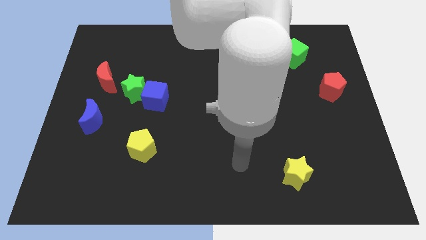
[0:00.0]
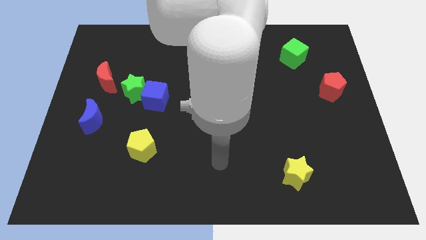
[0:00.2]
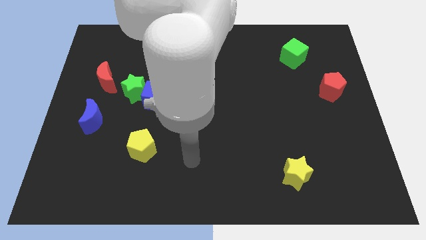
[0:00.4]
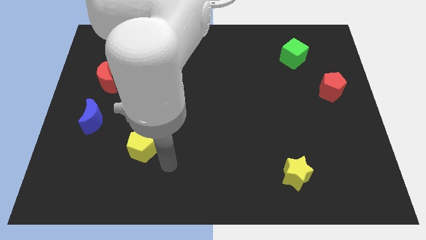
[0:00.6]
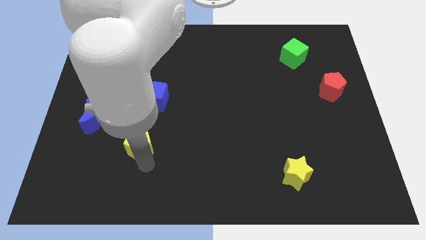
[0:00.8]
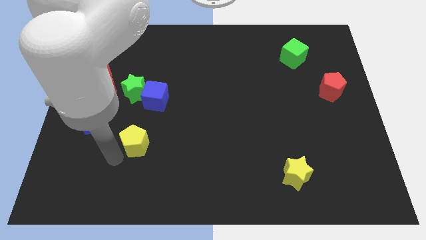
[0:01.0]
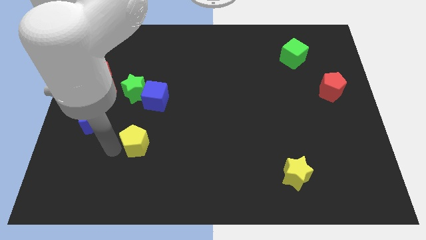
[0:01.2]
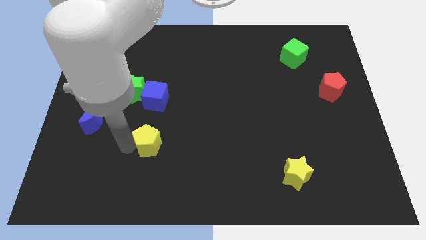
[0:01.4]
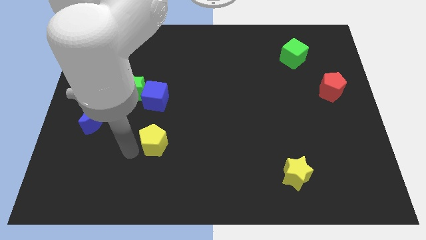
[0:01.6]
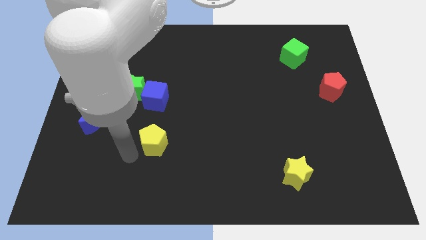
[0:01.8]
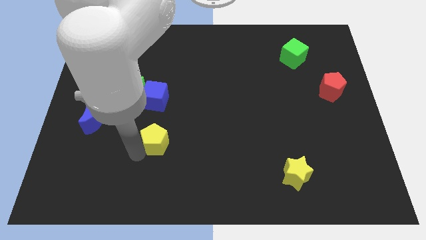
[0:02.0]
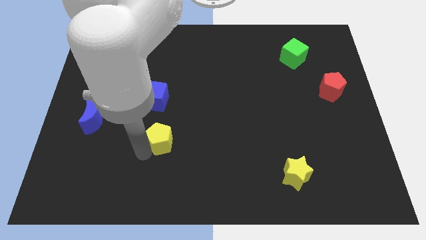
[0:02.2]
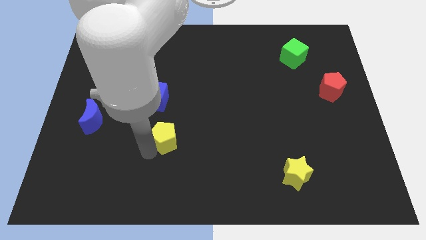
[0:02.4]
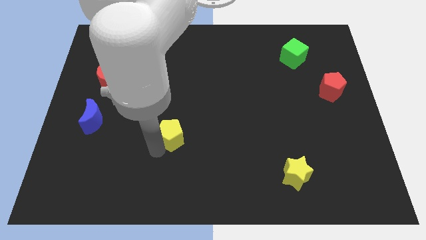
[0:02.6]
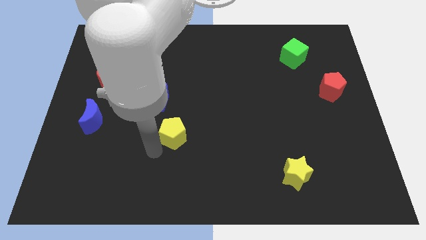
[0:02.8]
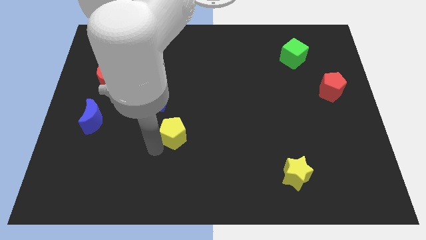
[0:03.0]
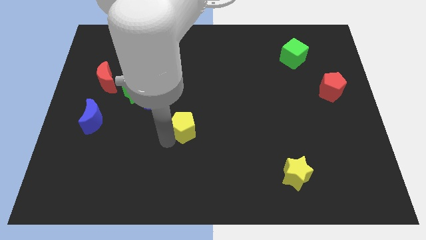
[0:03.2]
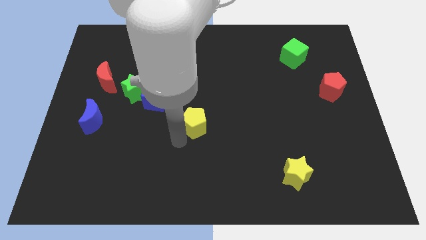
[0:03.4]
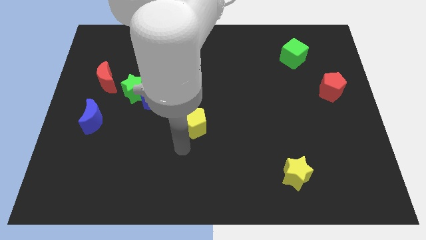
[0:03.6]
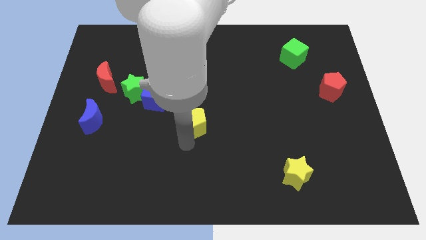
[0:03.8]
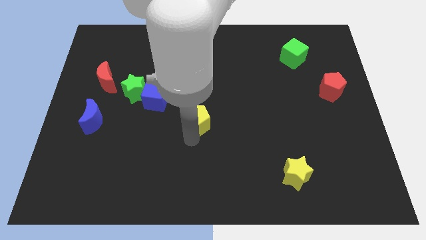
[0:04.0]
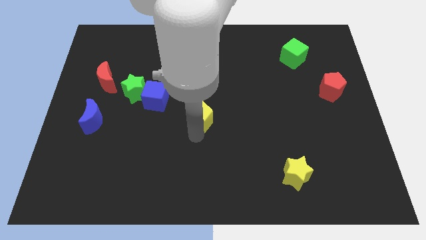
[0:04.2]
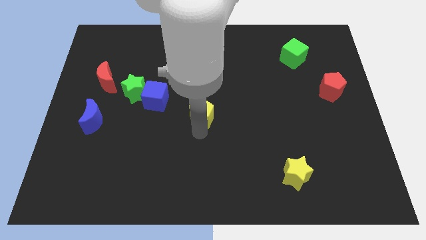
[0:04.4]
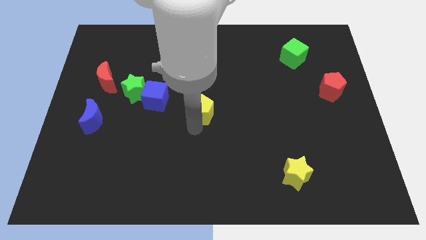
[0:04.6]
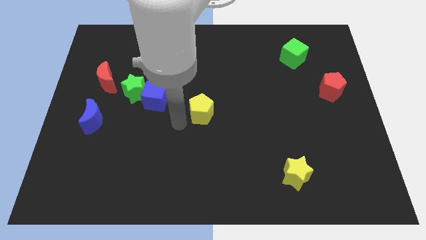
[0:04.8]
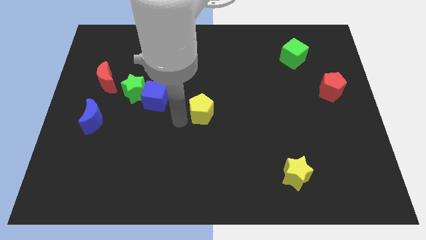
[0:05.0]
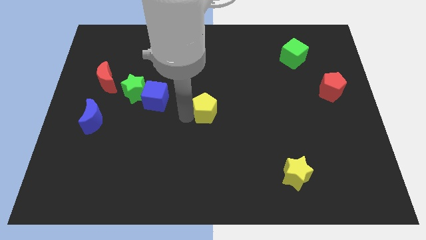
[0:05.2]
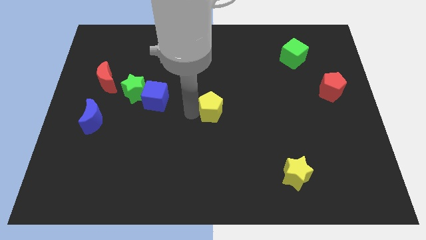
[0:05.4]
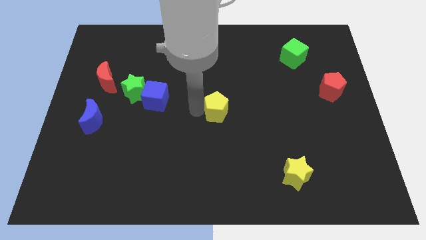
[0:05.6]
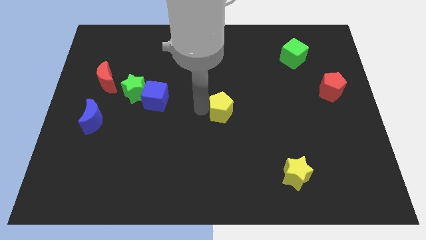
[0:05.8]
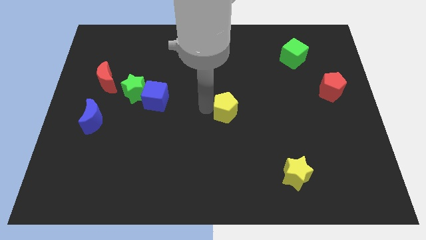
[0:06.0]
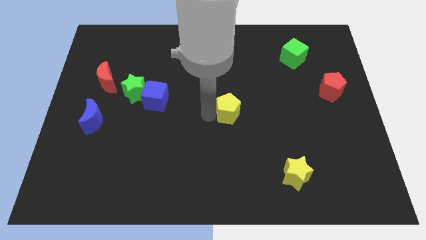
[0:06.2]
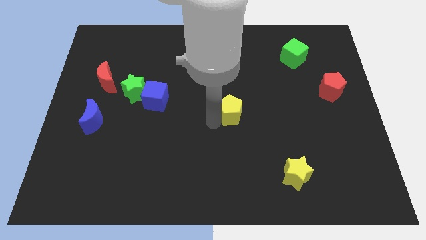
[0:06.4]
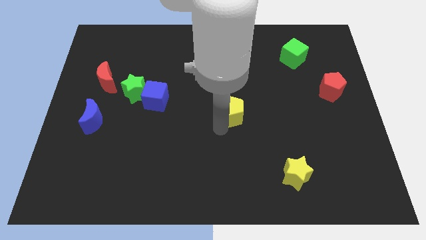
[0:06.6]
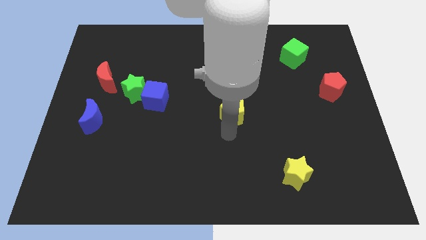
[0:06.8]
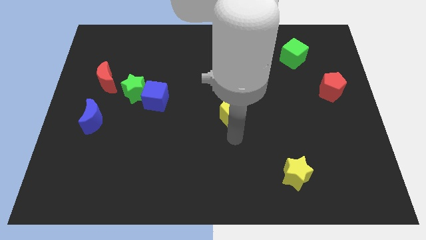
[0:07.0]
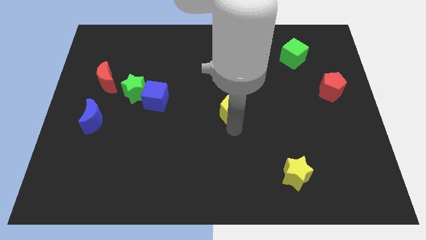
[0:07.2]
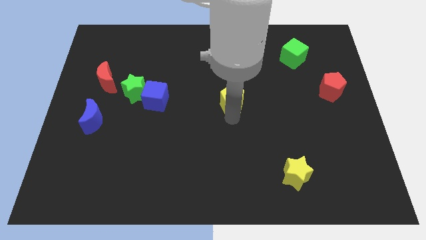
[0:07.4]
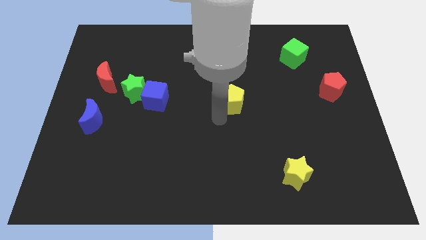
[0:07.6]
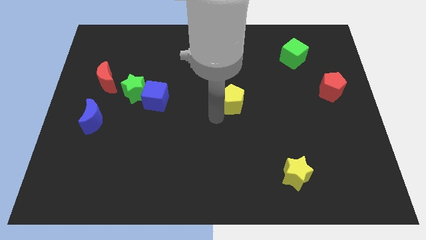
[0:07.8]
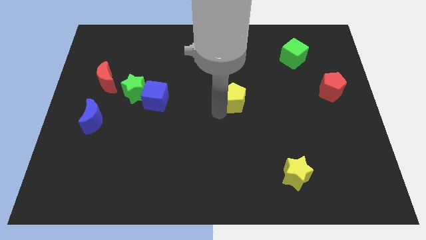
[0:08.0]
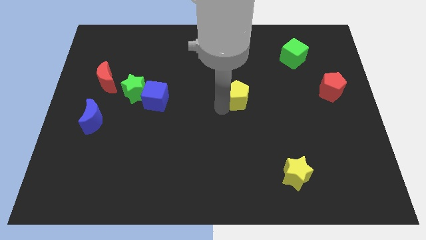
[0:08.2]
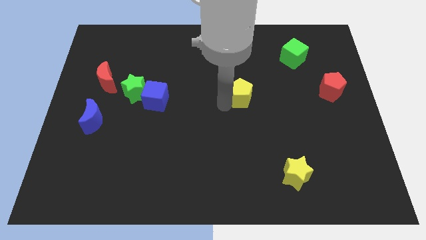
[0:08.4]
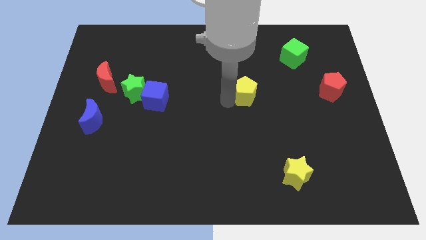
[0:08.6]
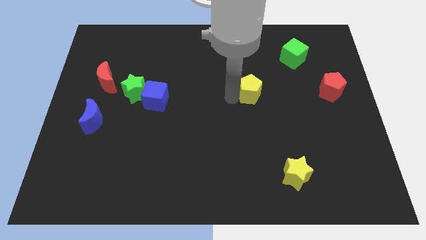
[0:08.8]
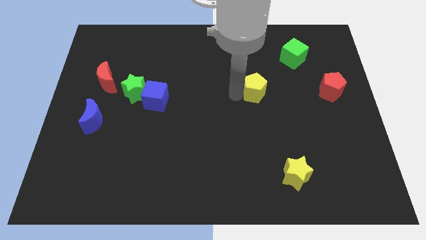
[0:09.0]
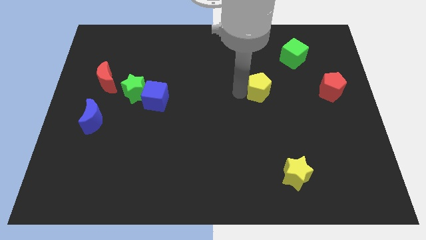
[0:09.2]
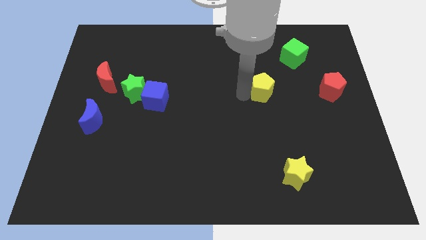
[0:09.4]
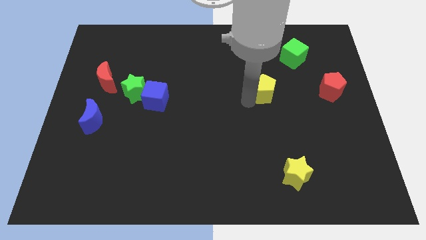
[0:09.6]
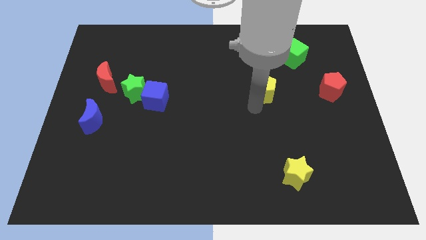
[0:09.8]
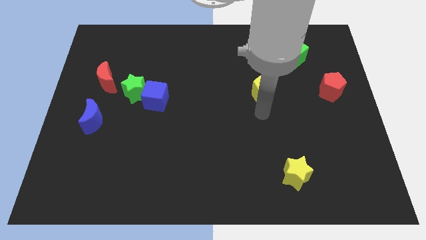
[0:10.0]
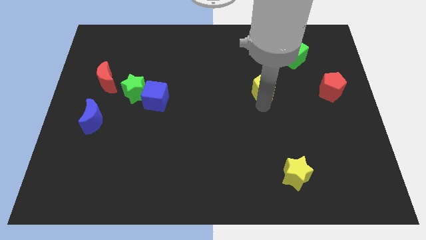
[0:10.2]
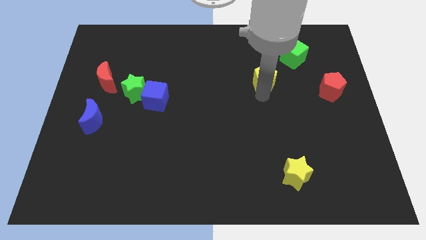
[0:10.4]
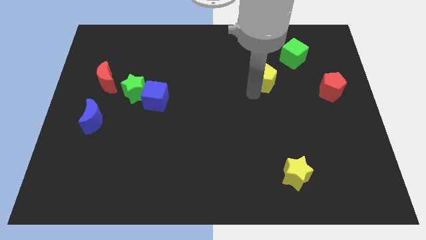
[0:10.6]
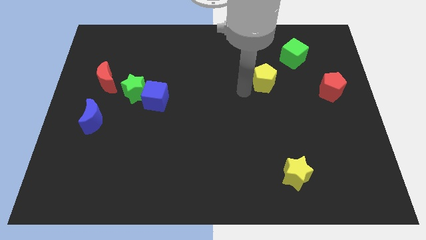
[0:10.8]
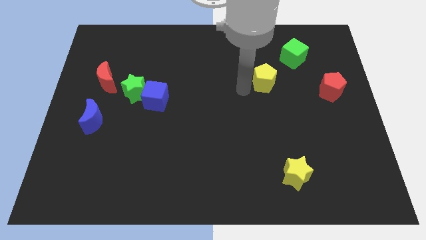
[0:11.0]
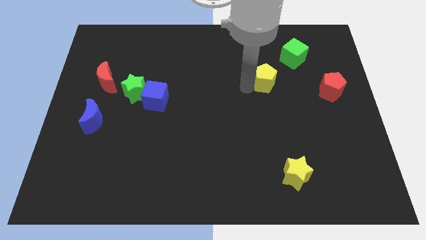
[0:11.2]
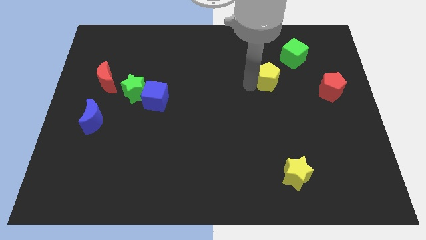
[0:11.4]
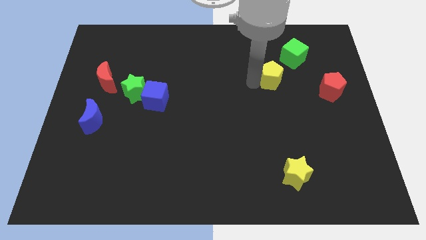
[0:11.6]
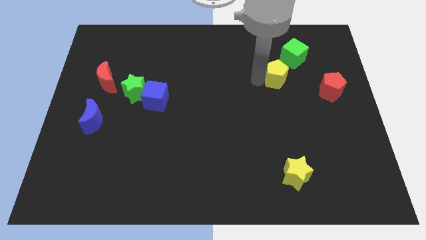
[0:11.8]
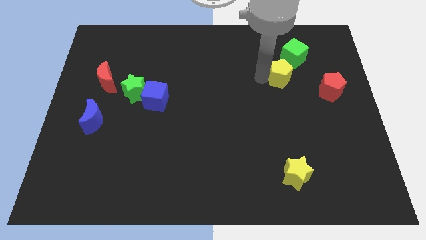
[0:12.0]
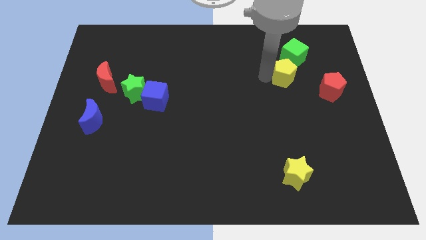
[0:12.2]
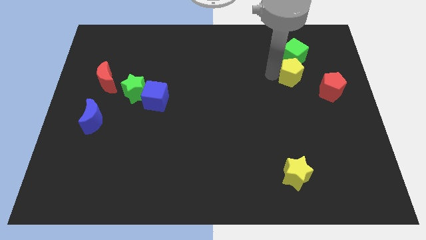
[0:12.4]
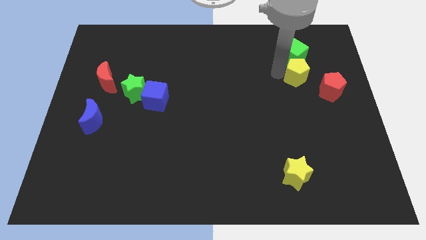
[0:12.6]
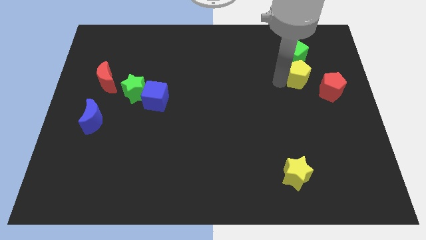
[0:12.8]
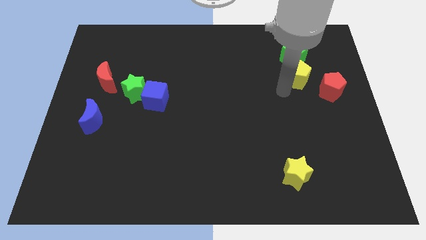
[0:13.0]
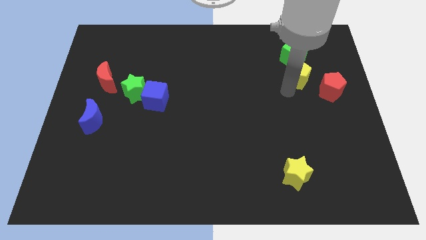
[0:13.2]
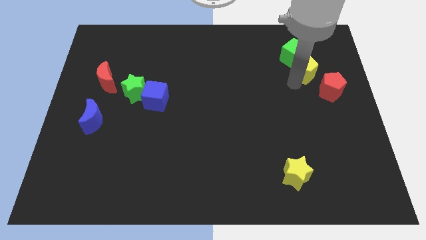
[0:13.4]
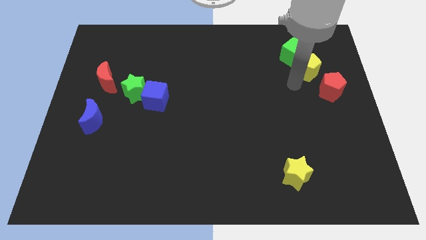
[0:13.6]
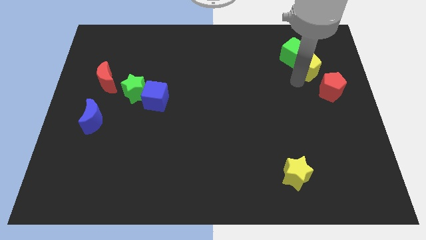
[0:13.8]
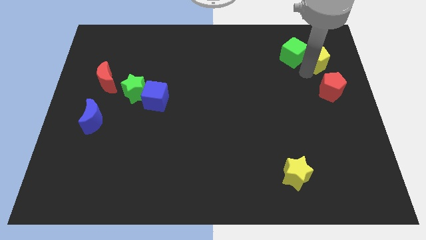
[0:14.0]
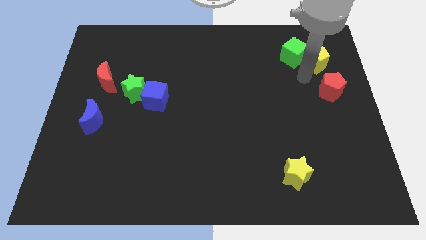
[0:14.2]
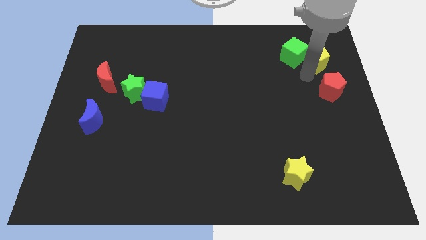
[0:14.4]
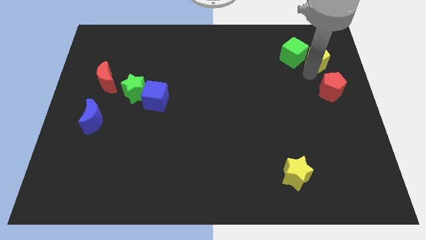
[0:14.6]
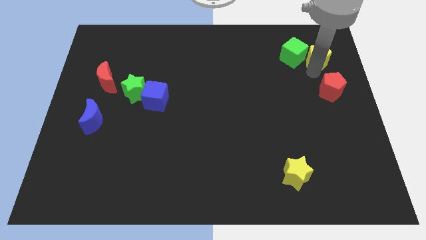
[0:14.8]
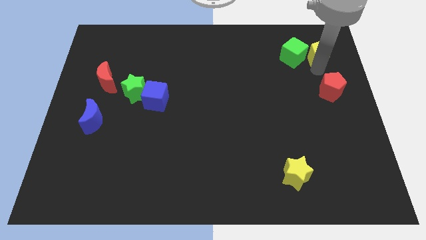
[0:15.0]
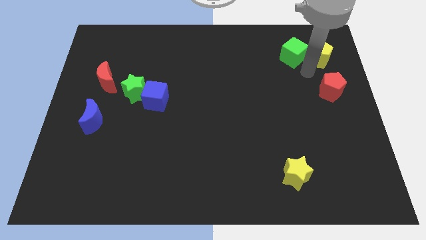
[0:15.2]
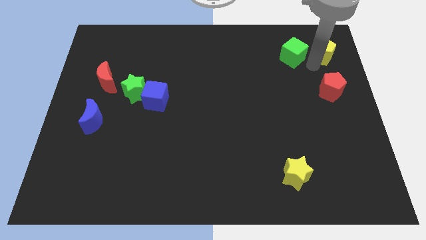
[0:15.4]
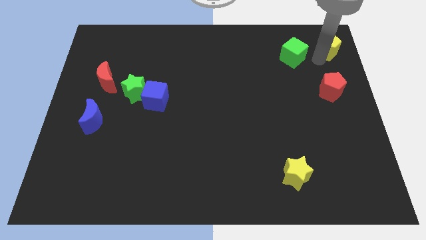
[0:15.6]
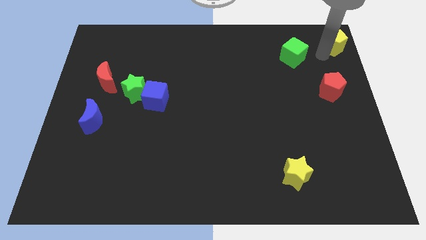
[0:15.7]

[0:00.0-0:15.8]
move the yellow pentagon to the upper right corner
